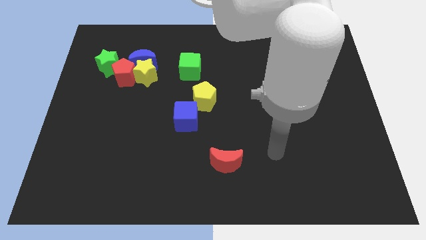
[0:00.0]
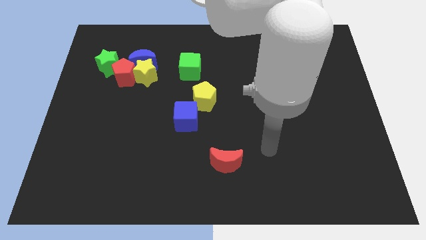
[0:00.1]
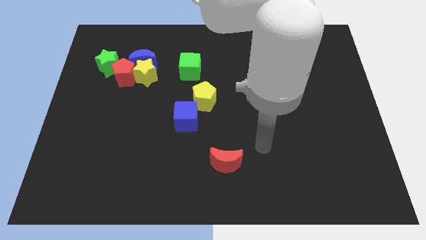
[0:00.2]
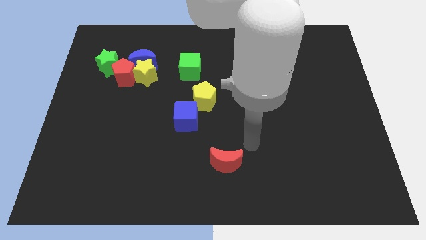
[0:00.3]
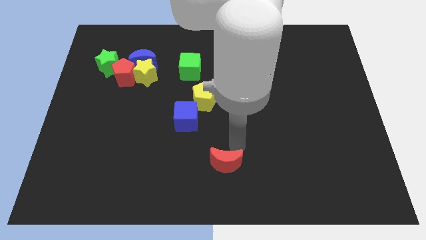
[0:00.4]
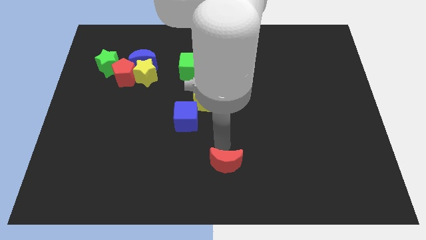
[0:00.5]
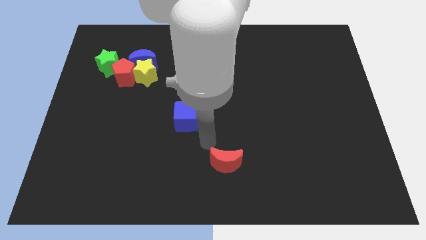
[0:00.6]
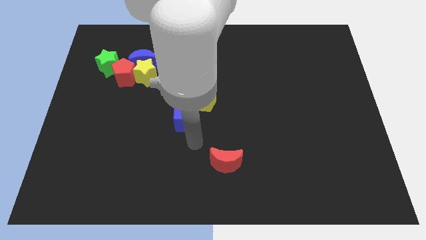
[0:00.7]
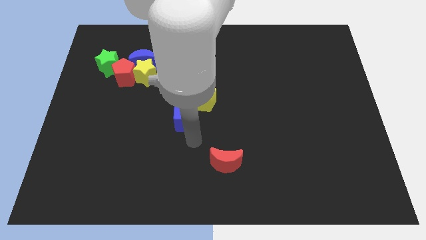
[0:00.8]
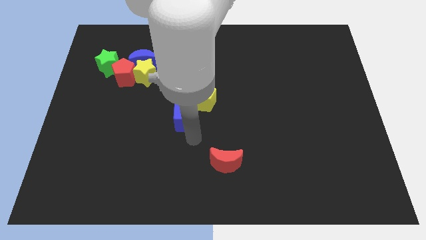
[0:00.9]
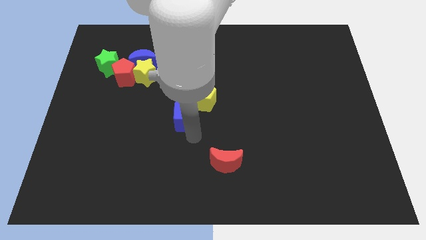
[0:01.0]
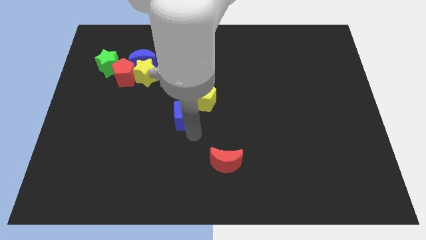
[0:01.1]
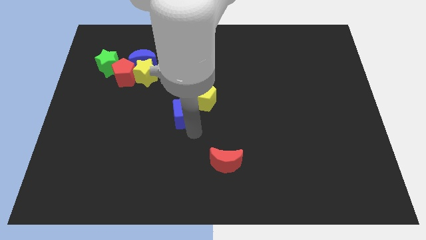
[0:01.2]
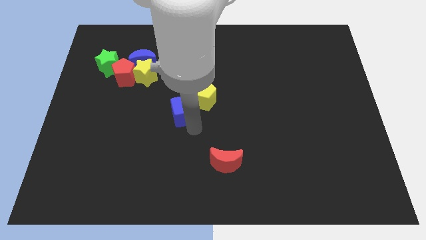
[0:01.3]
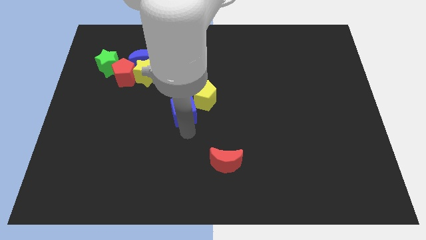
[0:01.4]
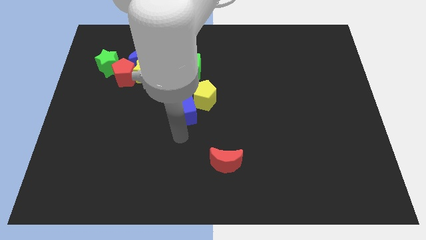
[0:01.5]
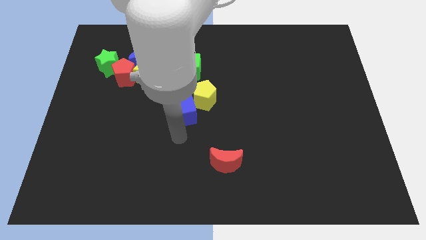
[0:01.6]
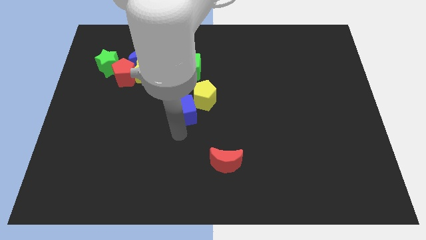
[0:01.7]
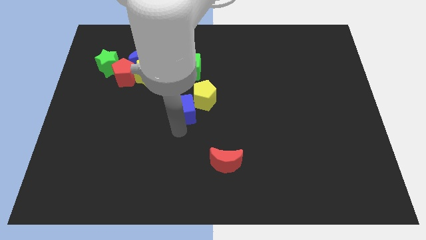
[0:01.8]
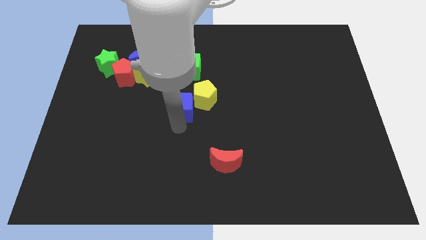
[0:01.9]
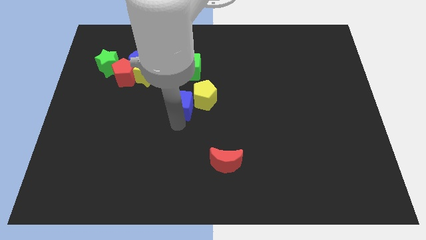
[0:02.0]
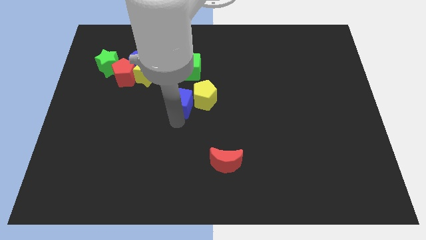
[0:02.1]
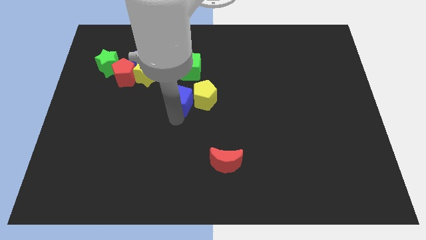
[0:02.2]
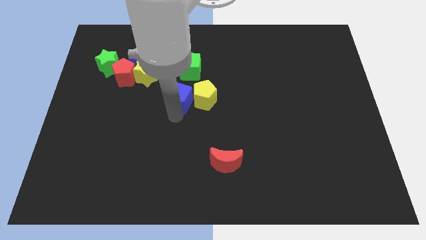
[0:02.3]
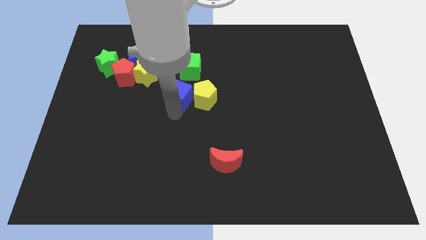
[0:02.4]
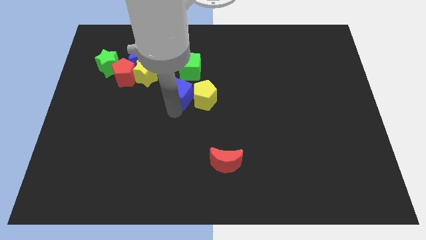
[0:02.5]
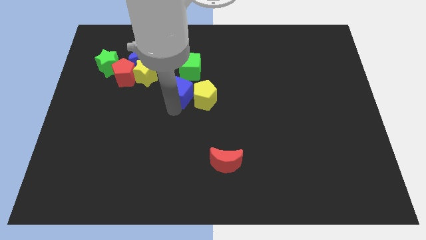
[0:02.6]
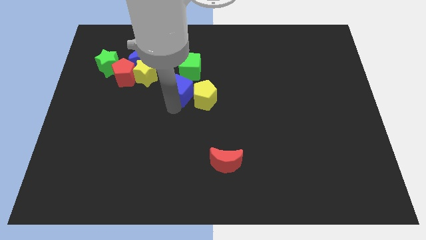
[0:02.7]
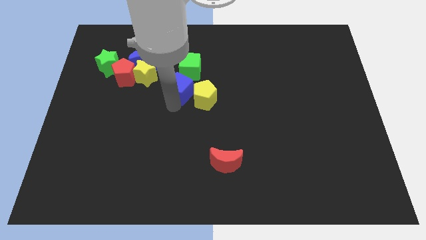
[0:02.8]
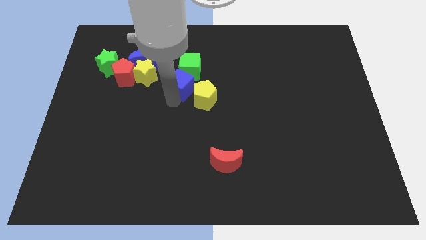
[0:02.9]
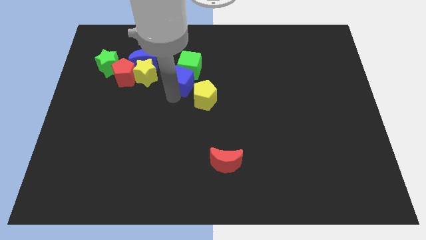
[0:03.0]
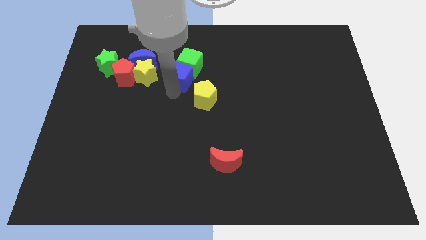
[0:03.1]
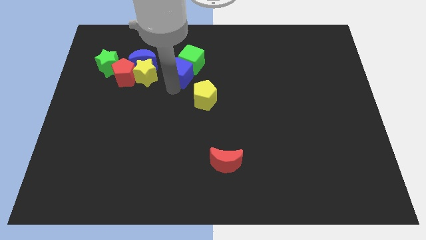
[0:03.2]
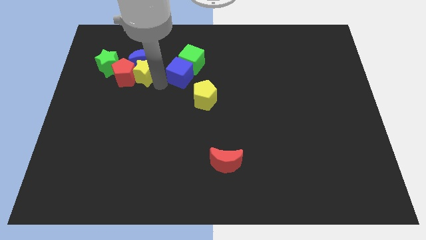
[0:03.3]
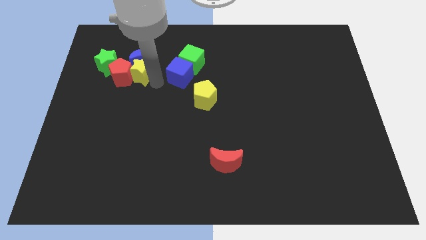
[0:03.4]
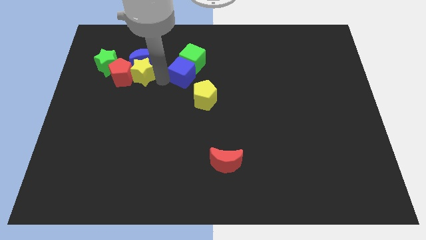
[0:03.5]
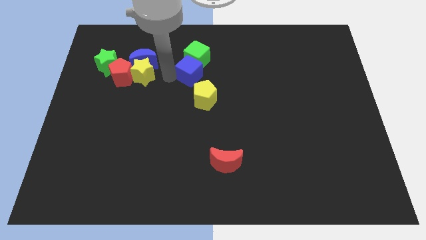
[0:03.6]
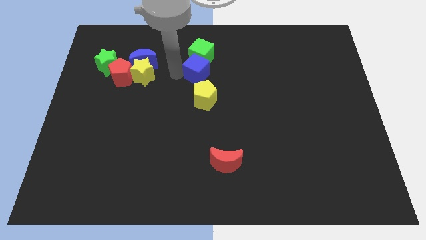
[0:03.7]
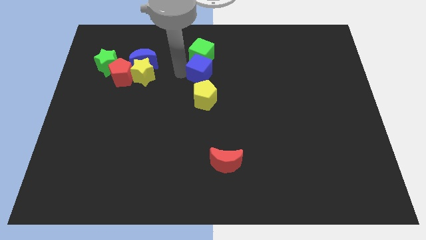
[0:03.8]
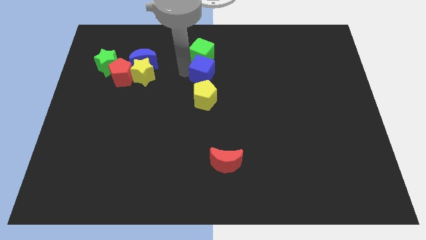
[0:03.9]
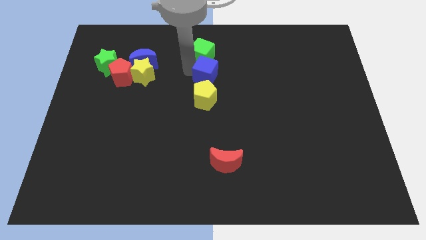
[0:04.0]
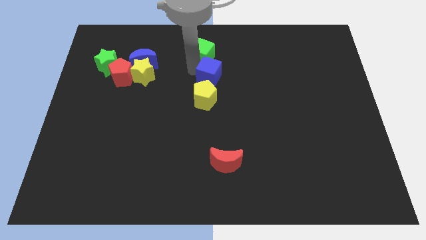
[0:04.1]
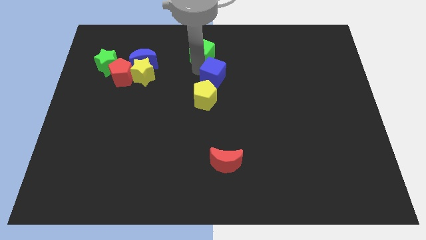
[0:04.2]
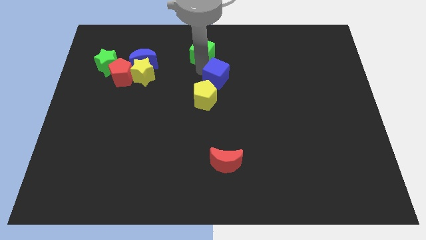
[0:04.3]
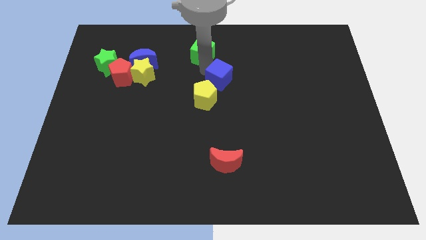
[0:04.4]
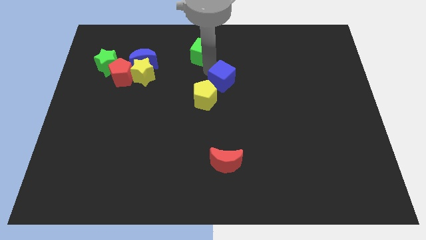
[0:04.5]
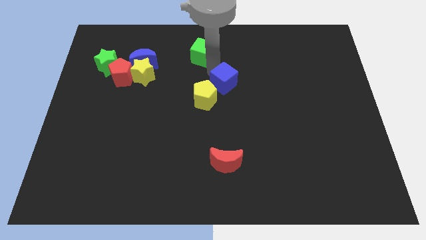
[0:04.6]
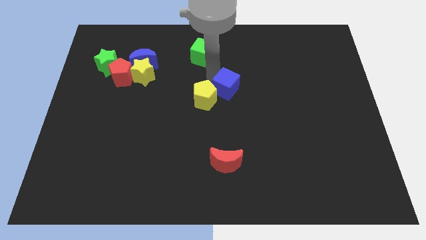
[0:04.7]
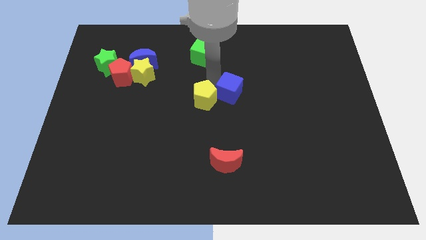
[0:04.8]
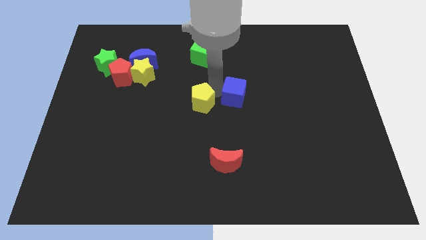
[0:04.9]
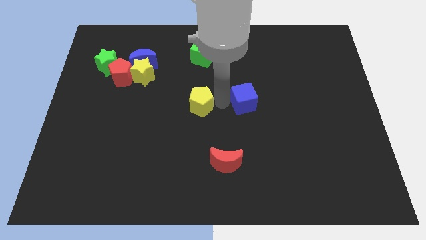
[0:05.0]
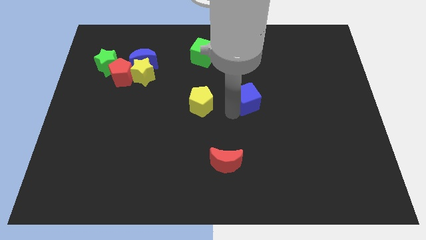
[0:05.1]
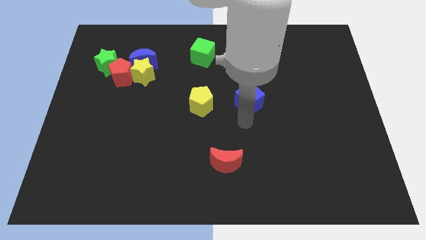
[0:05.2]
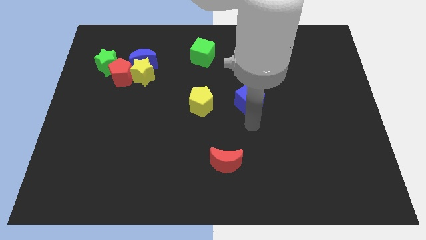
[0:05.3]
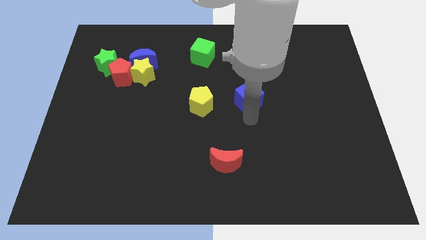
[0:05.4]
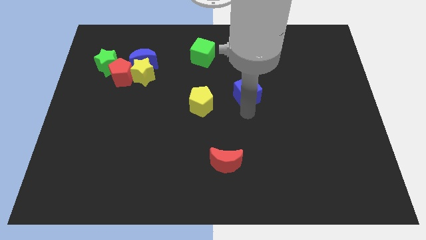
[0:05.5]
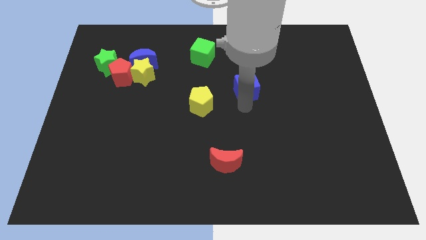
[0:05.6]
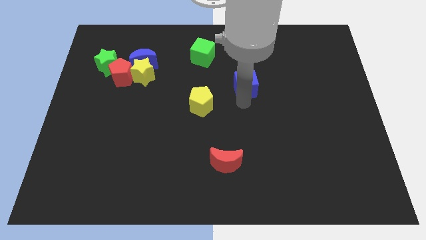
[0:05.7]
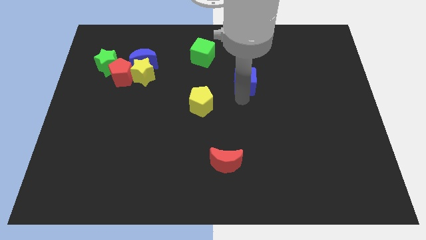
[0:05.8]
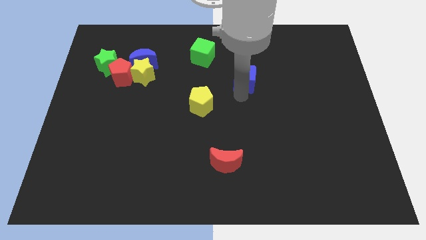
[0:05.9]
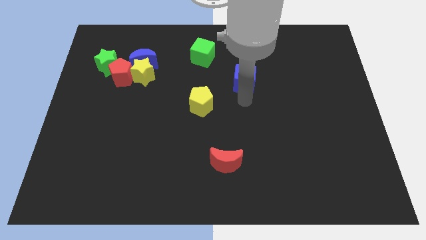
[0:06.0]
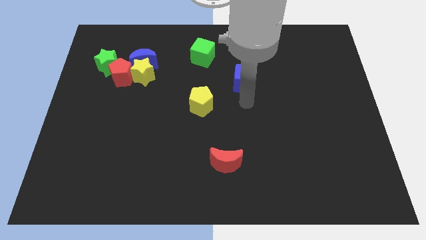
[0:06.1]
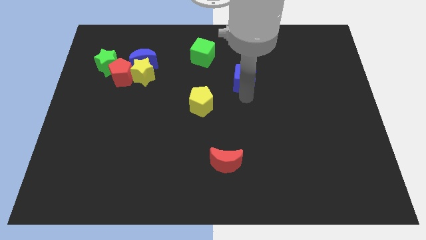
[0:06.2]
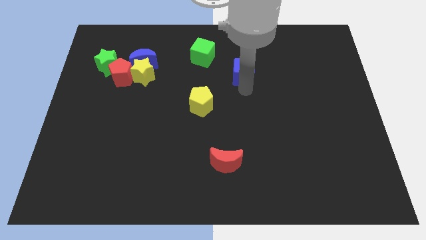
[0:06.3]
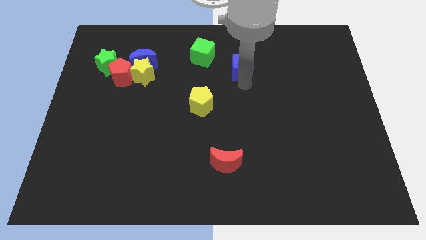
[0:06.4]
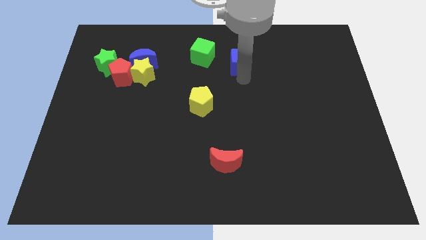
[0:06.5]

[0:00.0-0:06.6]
put the blue cube right of the green cube
